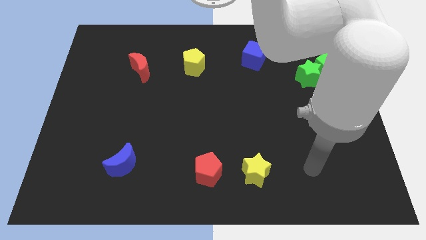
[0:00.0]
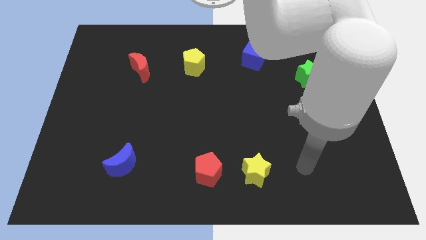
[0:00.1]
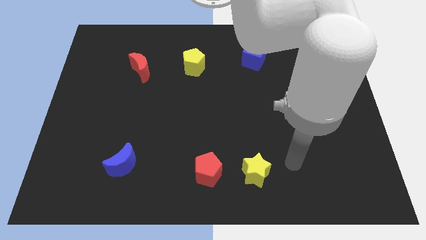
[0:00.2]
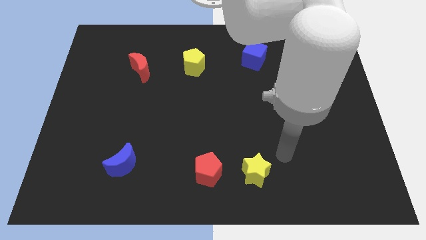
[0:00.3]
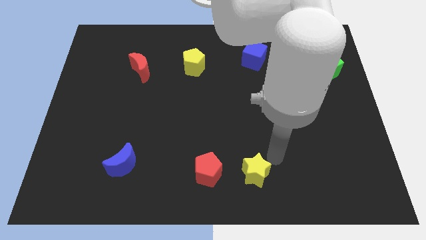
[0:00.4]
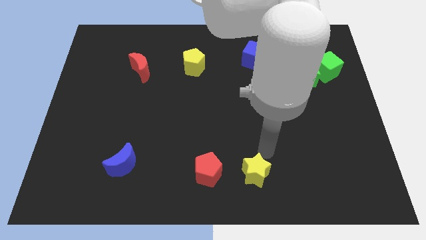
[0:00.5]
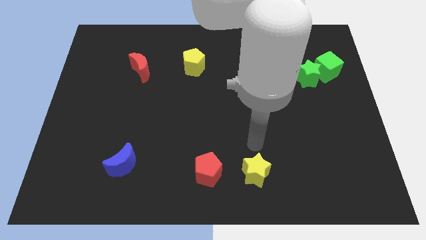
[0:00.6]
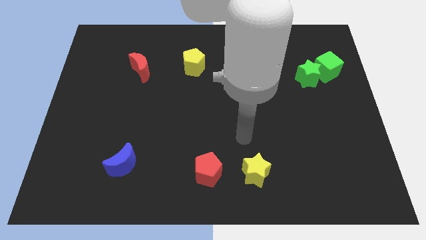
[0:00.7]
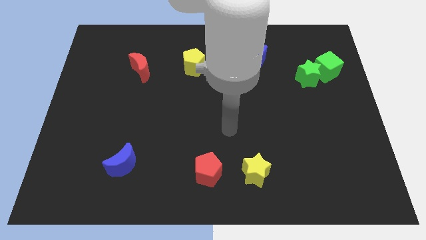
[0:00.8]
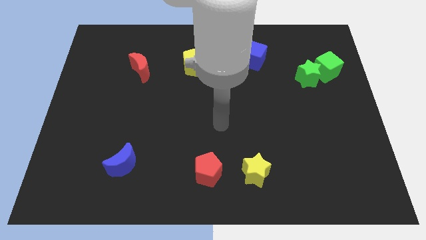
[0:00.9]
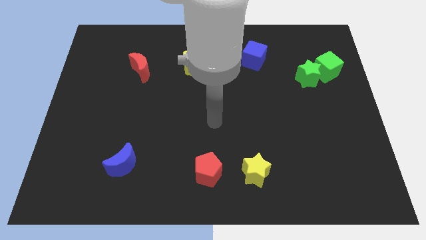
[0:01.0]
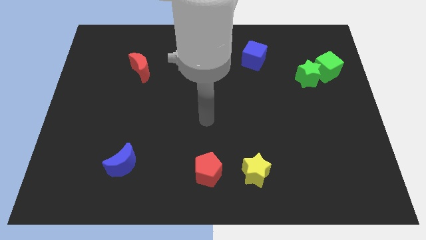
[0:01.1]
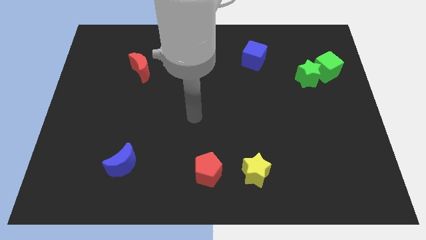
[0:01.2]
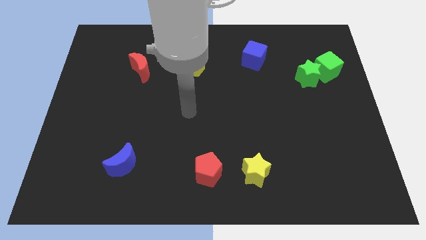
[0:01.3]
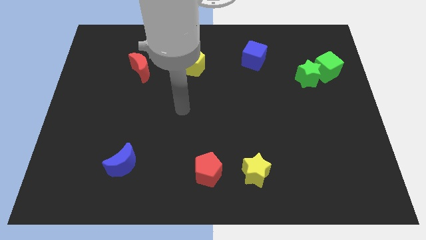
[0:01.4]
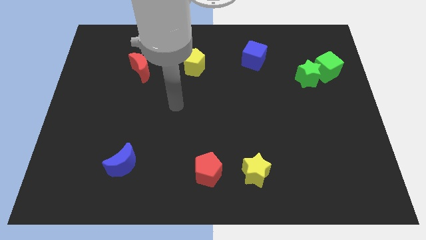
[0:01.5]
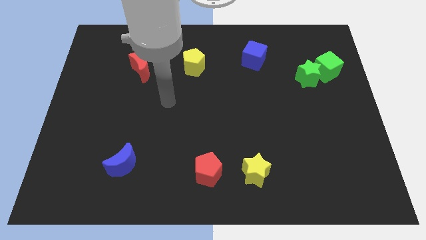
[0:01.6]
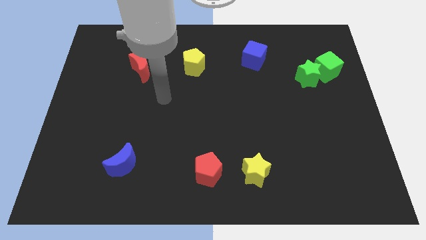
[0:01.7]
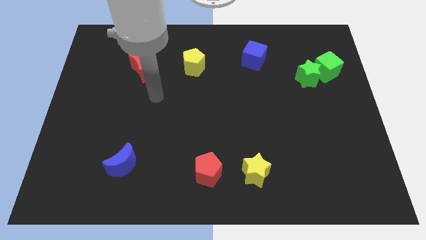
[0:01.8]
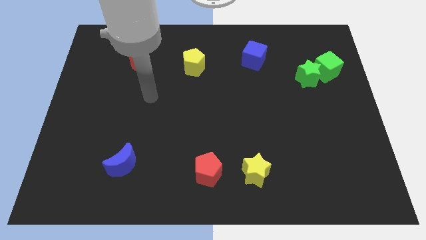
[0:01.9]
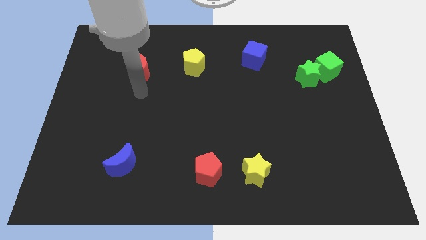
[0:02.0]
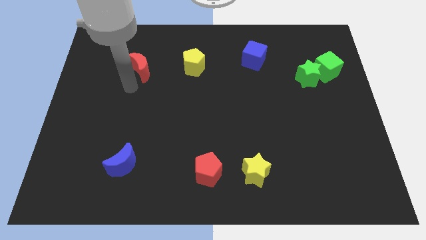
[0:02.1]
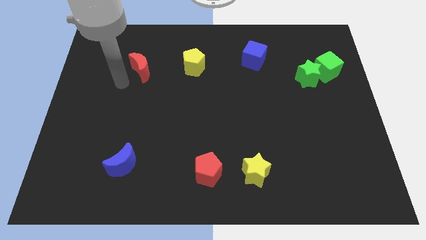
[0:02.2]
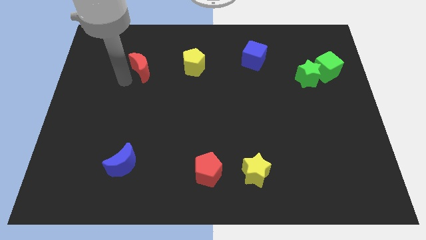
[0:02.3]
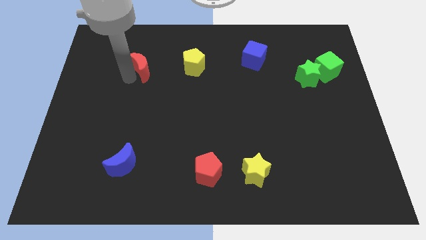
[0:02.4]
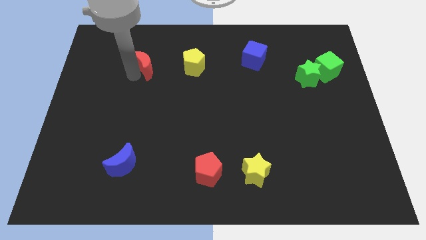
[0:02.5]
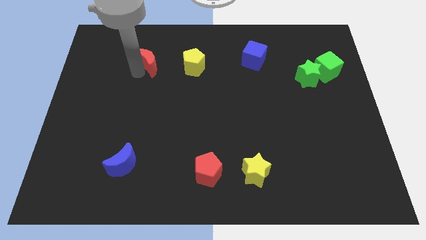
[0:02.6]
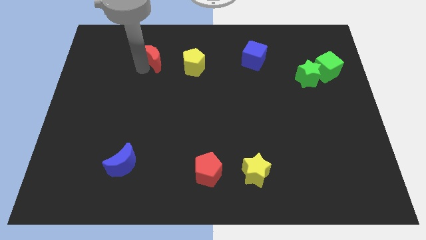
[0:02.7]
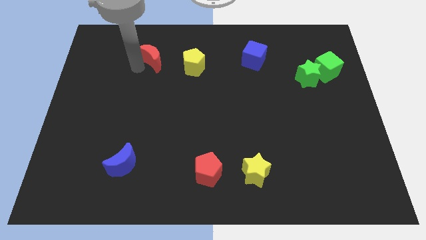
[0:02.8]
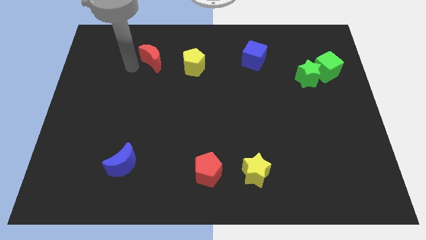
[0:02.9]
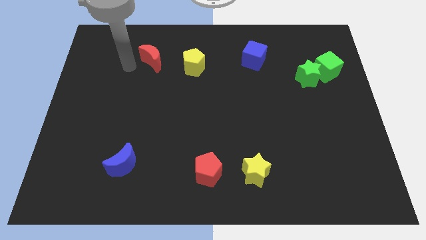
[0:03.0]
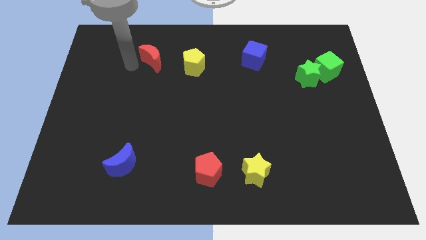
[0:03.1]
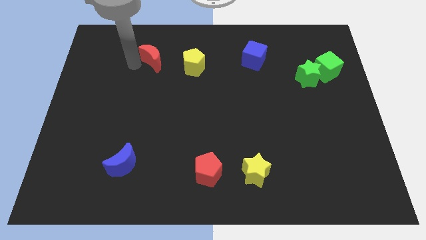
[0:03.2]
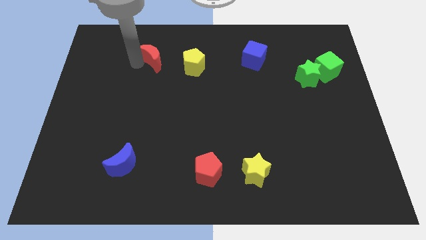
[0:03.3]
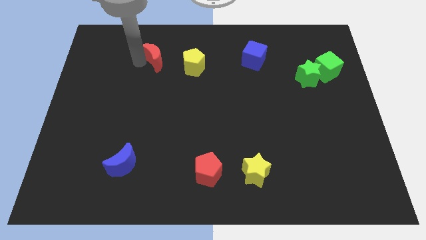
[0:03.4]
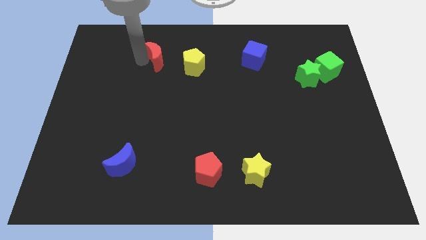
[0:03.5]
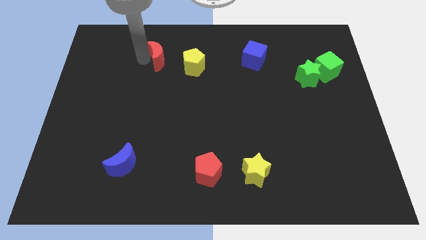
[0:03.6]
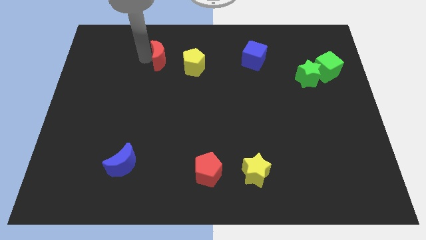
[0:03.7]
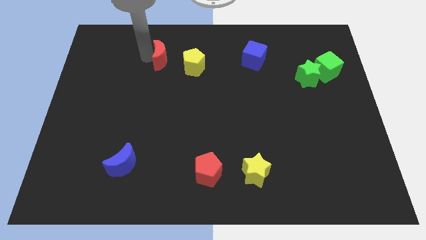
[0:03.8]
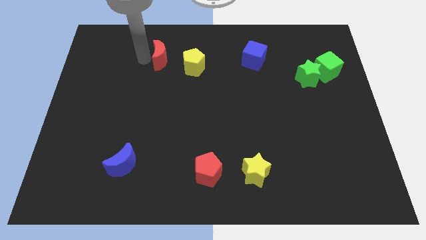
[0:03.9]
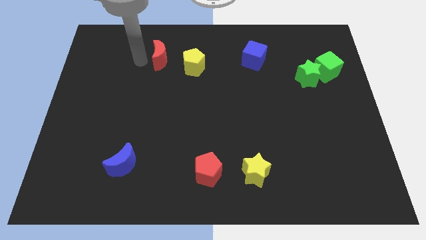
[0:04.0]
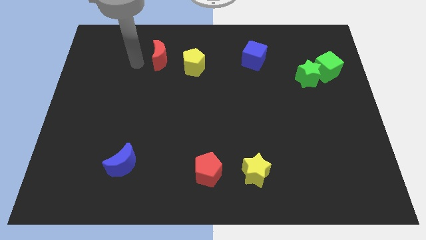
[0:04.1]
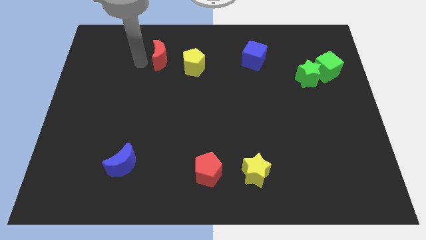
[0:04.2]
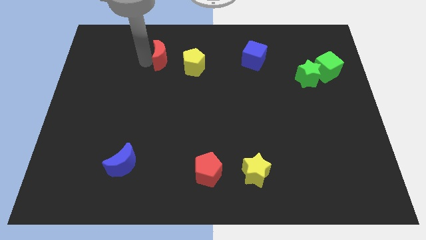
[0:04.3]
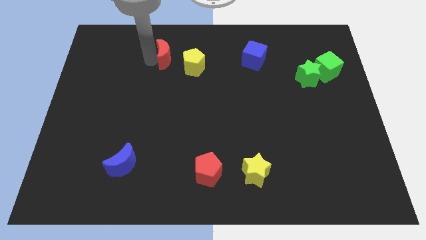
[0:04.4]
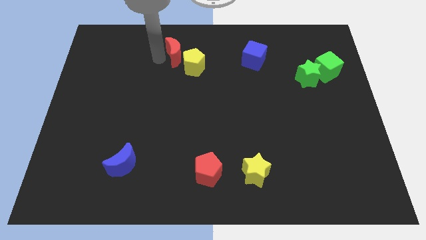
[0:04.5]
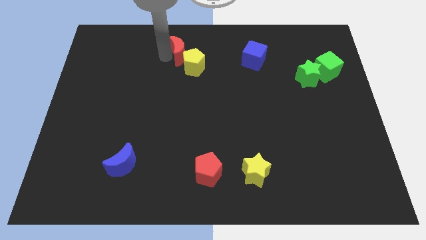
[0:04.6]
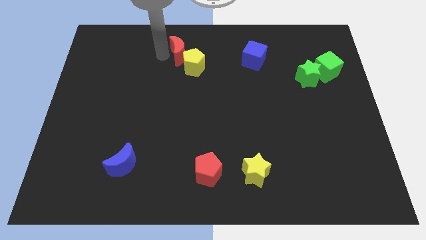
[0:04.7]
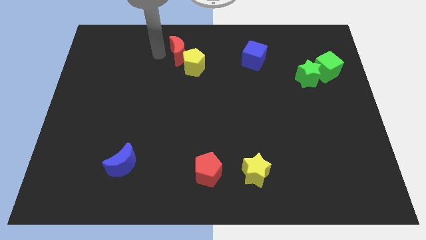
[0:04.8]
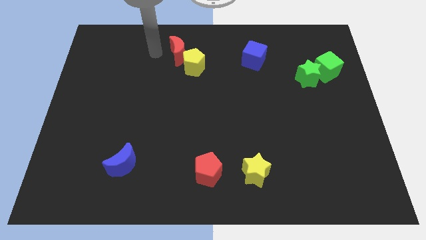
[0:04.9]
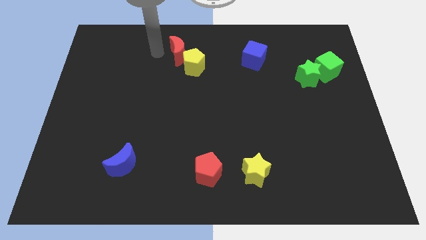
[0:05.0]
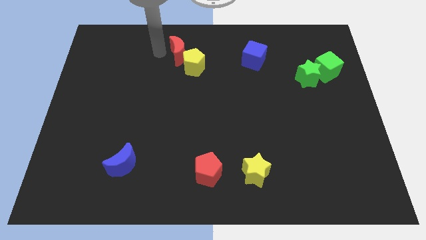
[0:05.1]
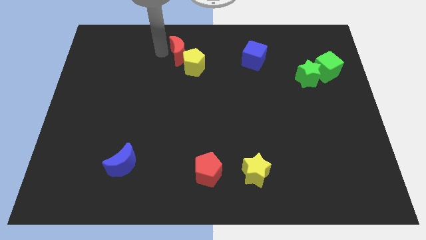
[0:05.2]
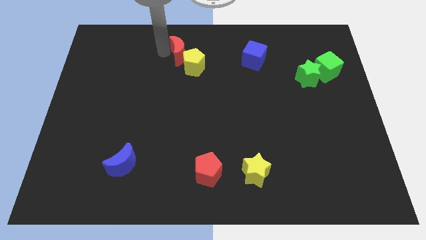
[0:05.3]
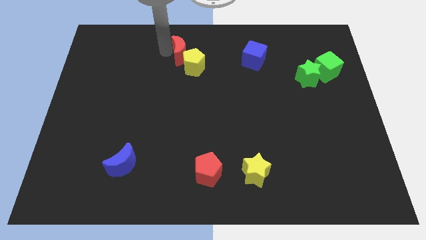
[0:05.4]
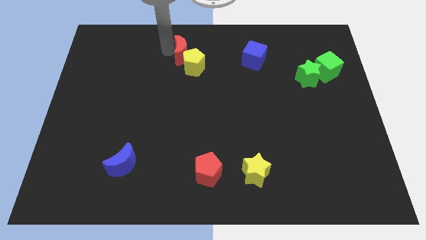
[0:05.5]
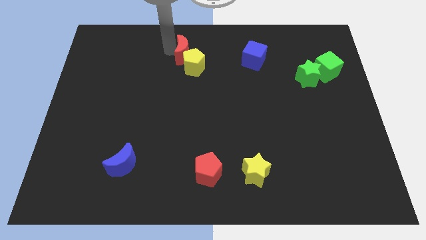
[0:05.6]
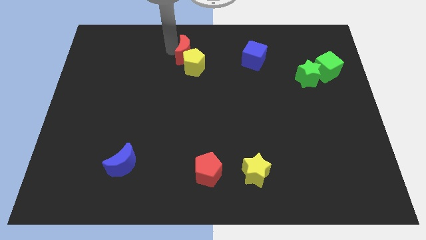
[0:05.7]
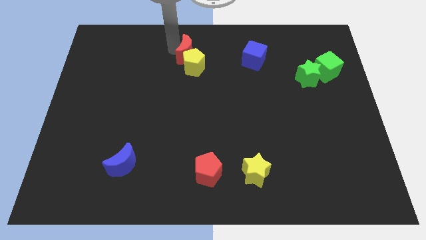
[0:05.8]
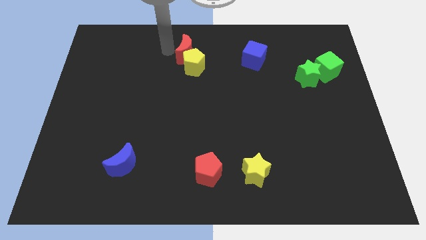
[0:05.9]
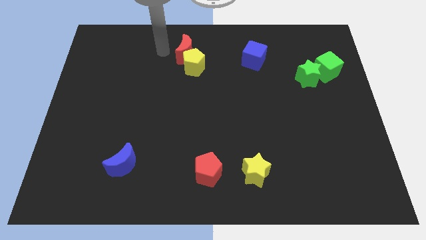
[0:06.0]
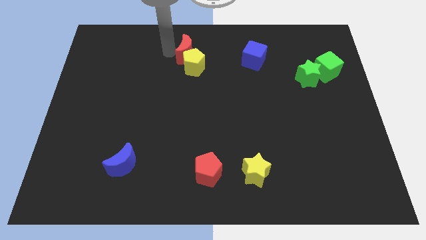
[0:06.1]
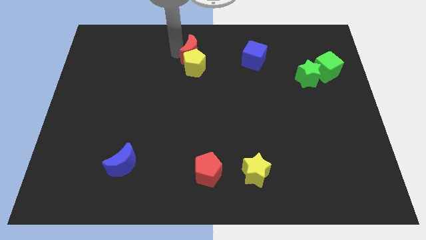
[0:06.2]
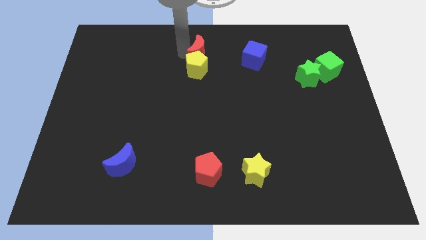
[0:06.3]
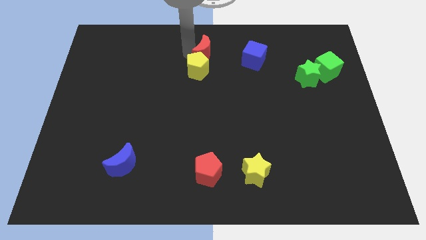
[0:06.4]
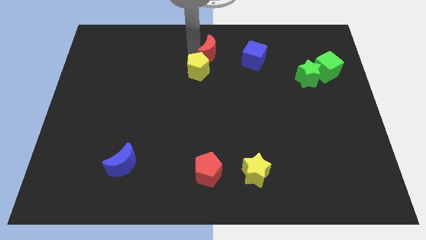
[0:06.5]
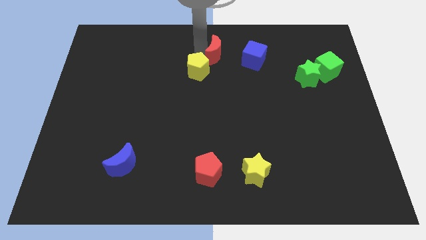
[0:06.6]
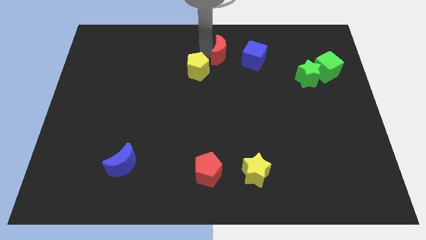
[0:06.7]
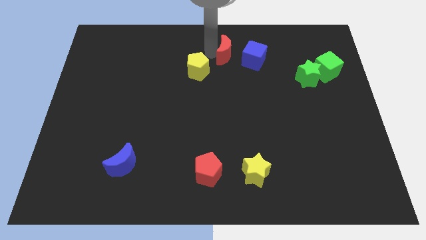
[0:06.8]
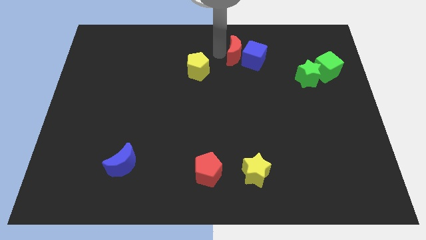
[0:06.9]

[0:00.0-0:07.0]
push the red moon to the blue cube

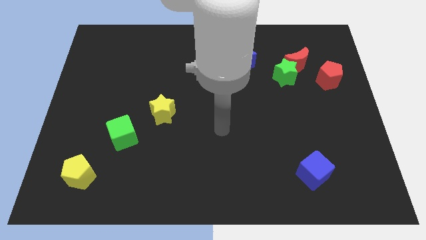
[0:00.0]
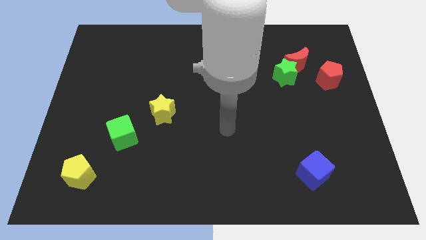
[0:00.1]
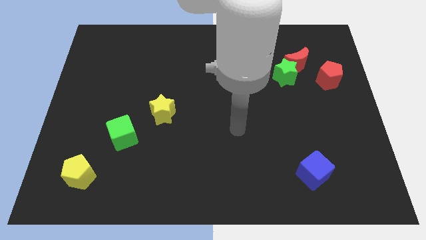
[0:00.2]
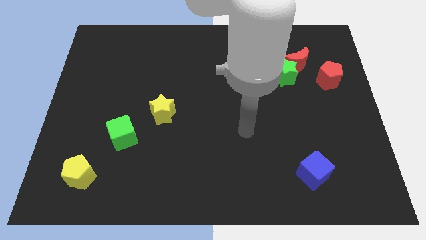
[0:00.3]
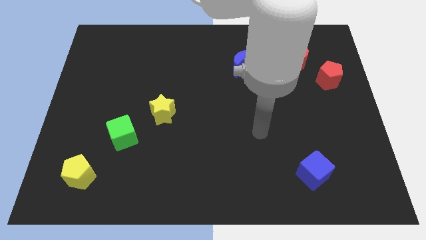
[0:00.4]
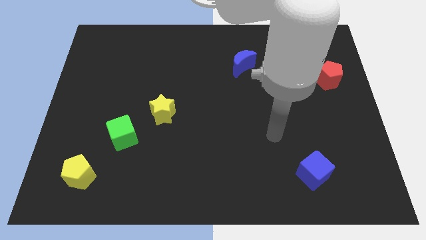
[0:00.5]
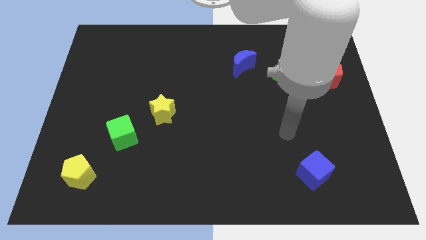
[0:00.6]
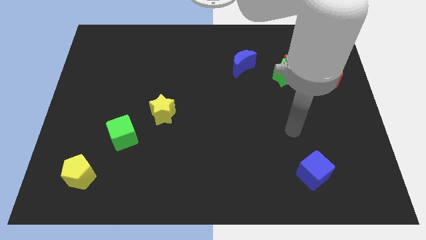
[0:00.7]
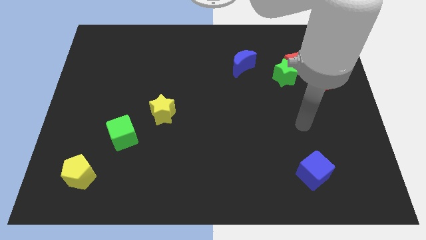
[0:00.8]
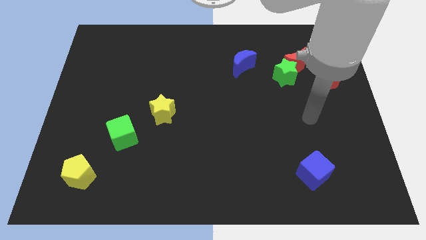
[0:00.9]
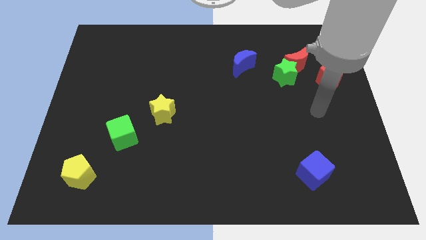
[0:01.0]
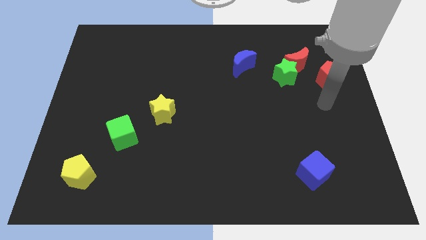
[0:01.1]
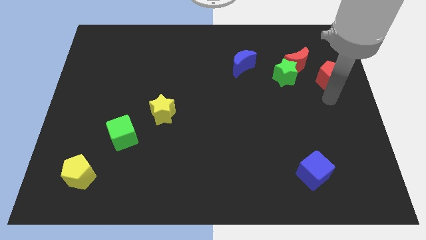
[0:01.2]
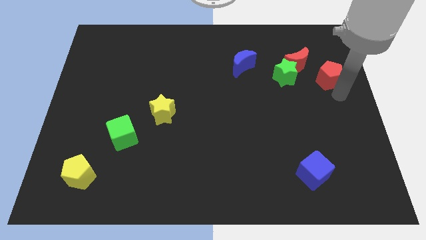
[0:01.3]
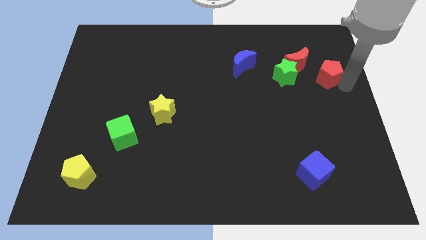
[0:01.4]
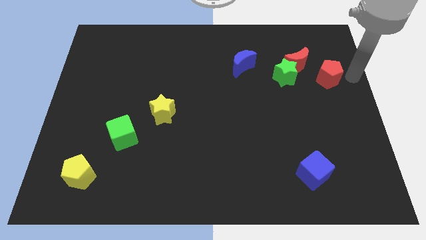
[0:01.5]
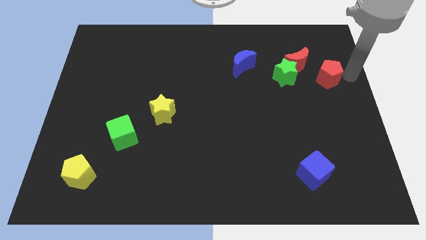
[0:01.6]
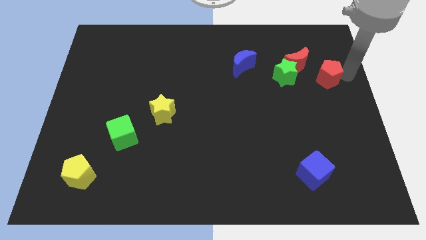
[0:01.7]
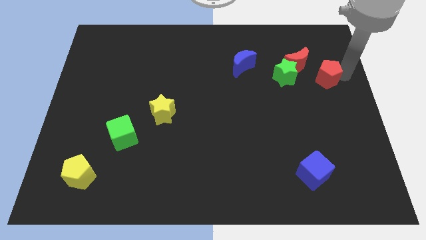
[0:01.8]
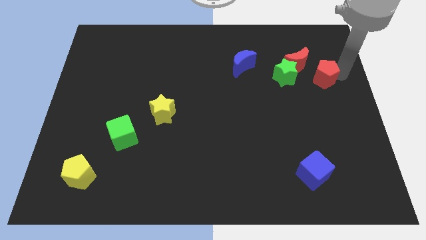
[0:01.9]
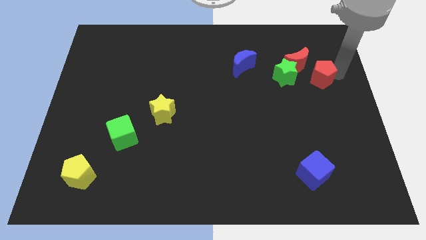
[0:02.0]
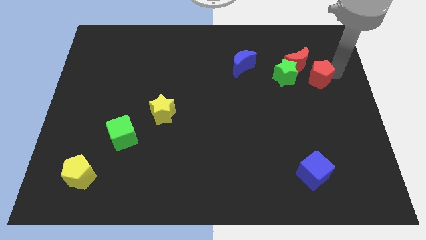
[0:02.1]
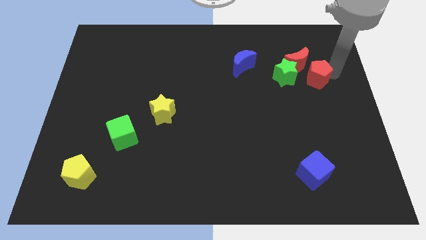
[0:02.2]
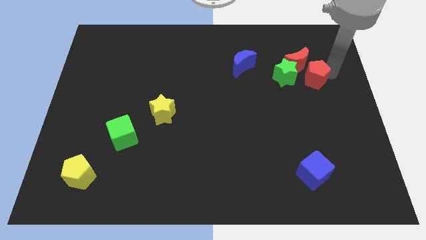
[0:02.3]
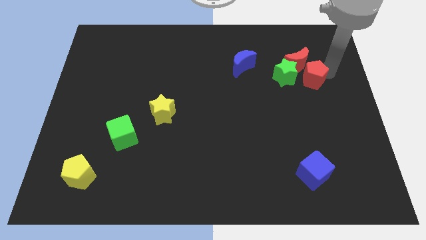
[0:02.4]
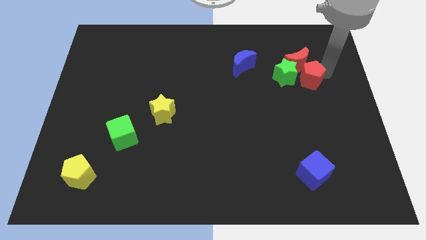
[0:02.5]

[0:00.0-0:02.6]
put the red pentagon close to the green star
